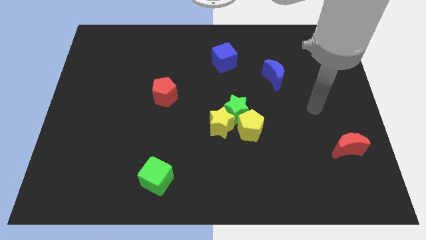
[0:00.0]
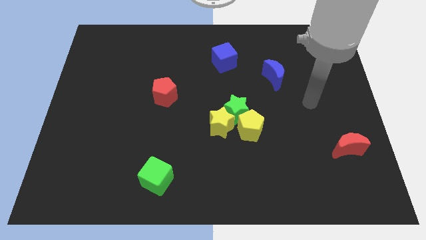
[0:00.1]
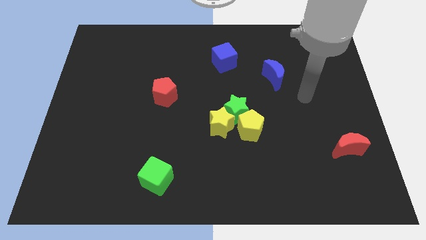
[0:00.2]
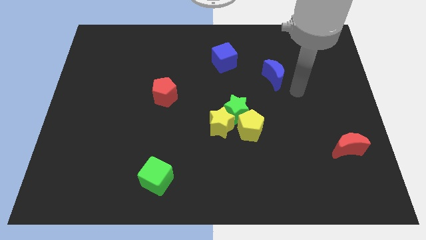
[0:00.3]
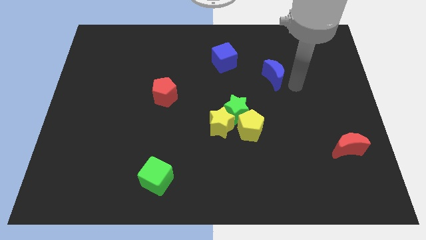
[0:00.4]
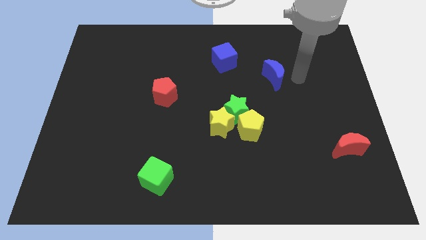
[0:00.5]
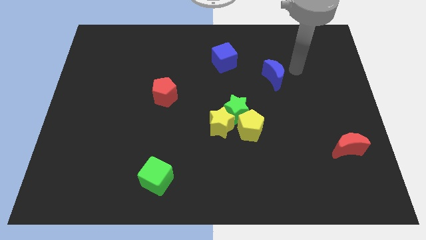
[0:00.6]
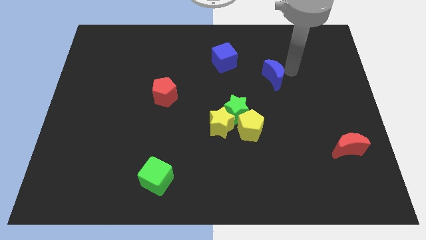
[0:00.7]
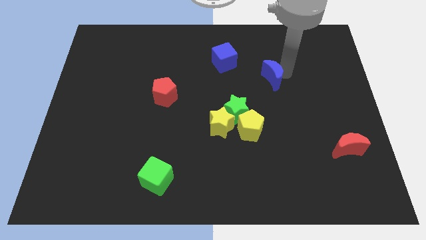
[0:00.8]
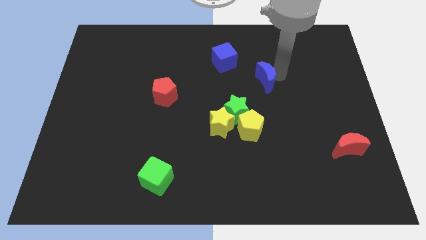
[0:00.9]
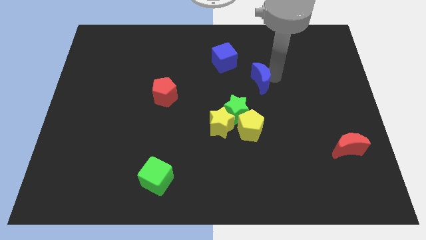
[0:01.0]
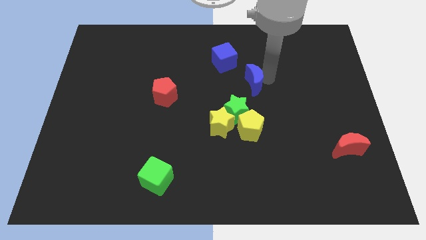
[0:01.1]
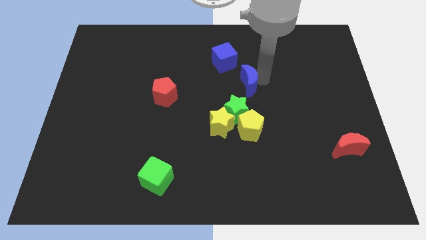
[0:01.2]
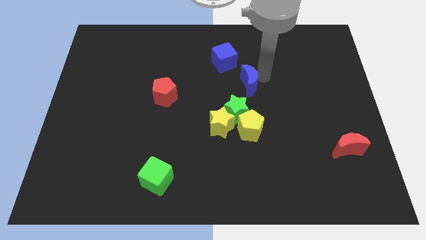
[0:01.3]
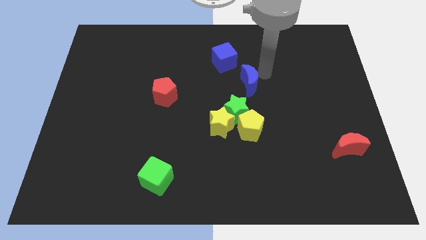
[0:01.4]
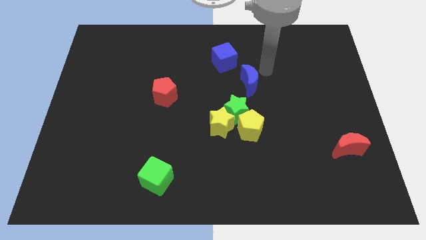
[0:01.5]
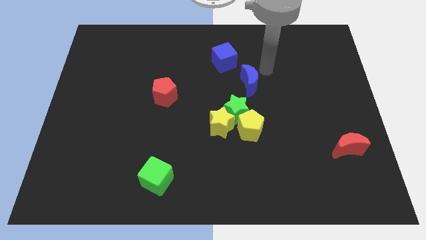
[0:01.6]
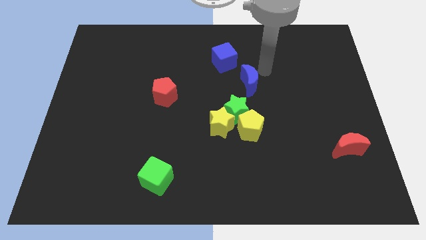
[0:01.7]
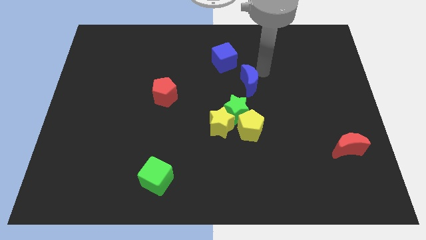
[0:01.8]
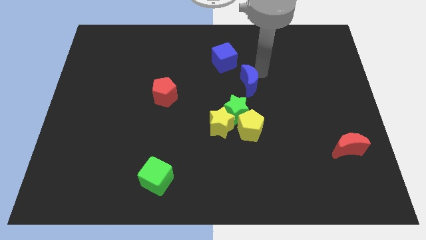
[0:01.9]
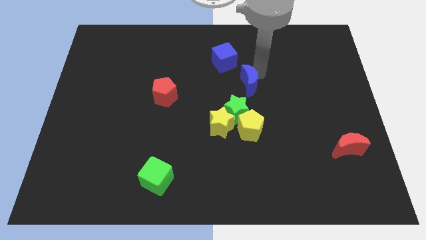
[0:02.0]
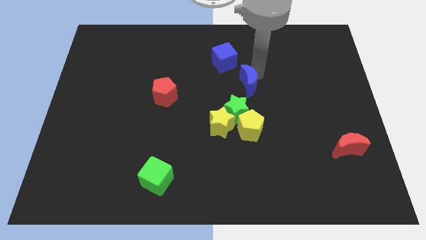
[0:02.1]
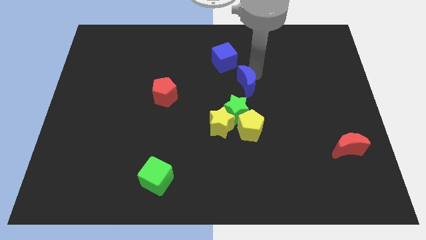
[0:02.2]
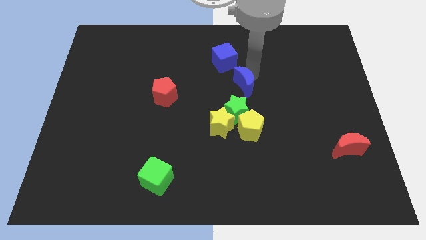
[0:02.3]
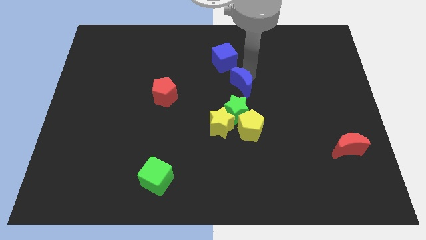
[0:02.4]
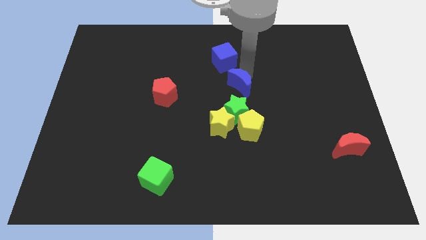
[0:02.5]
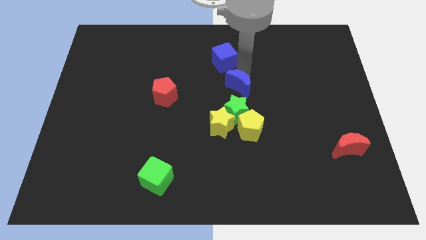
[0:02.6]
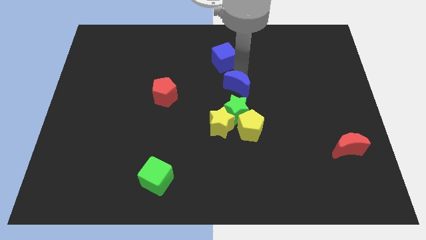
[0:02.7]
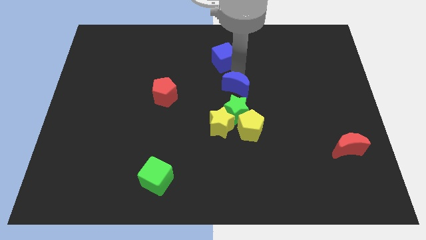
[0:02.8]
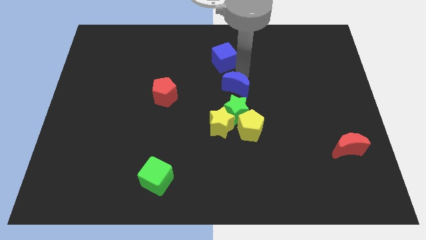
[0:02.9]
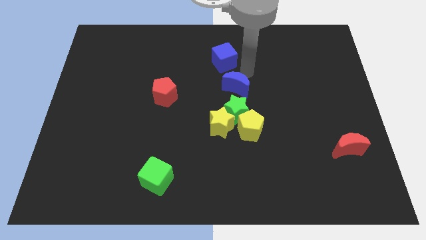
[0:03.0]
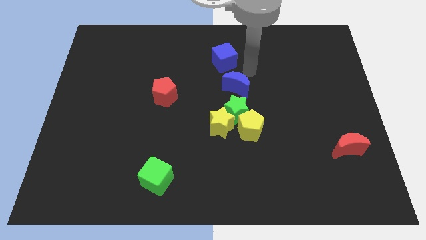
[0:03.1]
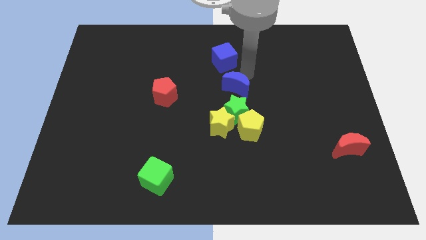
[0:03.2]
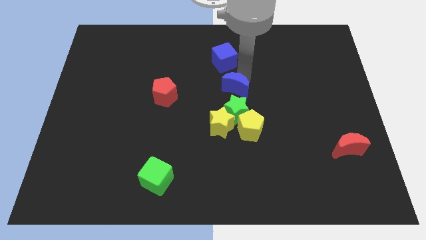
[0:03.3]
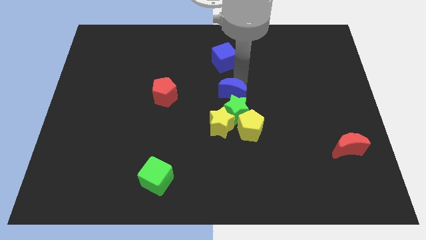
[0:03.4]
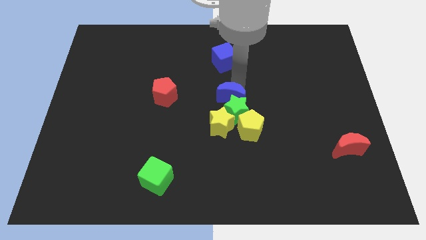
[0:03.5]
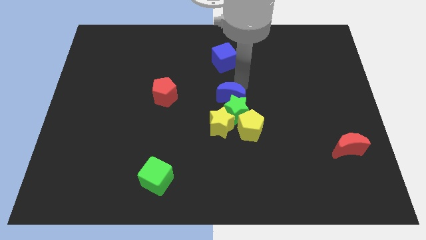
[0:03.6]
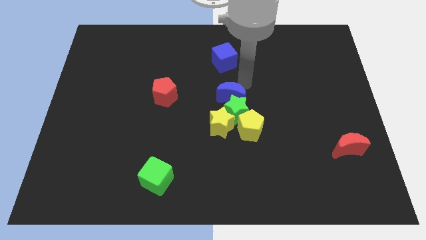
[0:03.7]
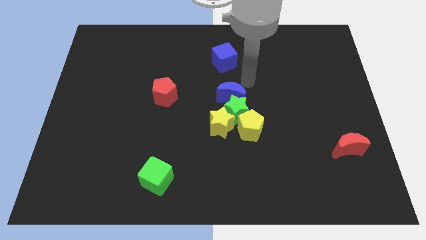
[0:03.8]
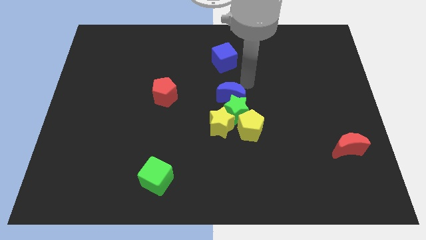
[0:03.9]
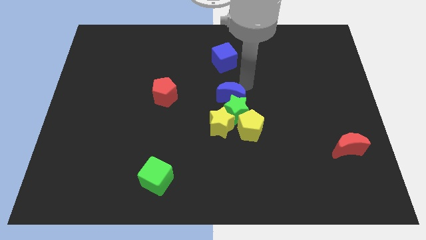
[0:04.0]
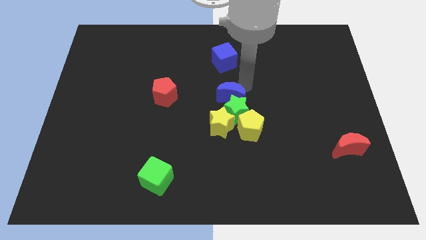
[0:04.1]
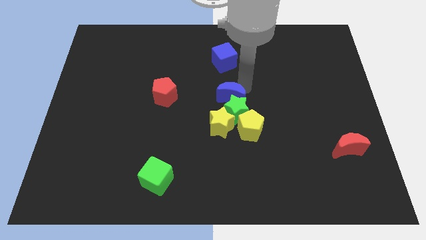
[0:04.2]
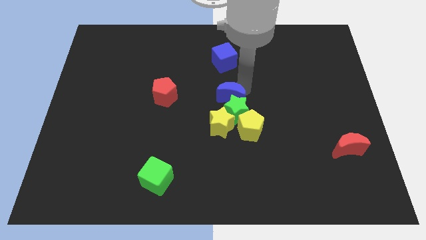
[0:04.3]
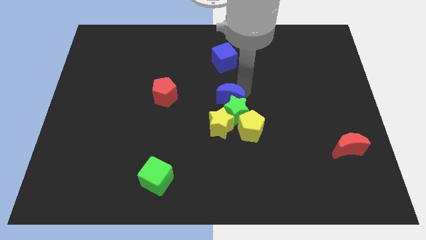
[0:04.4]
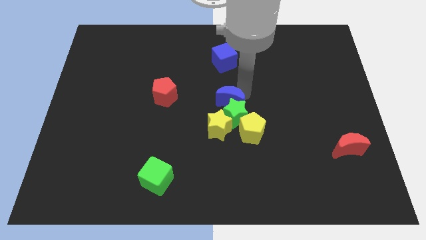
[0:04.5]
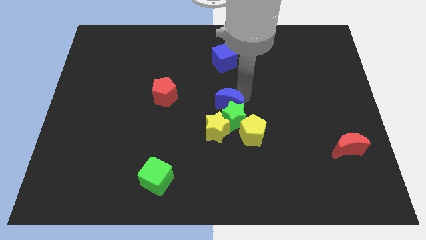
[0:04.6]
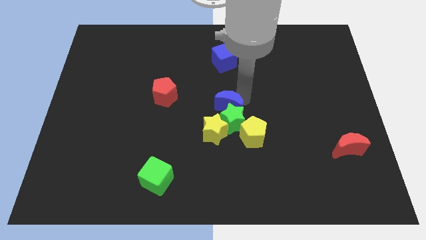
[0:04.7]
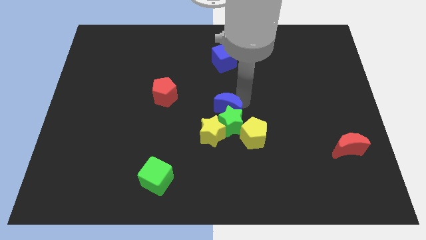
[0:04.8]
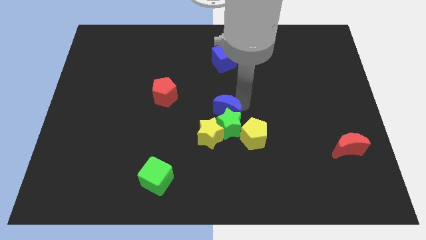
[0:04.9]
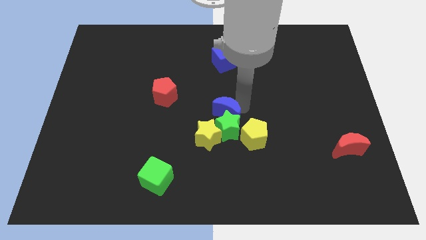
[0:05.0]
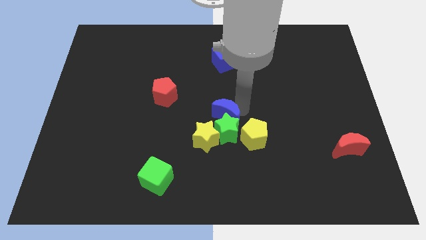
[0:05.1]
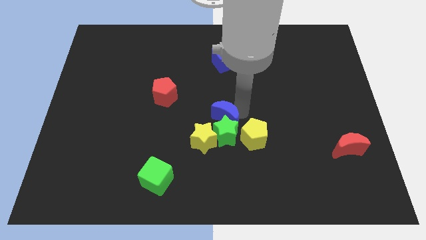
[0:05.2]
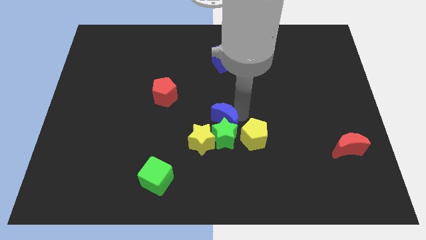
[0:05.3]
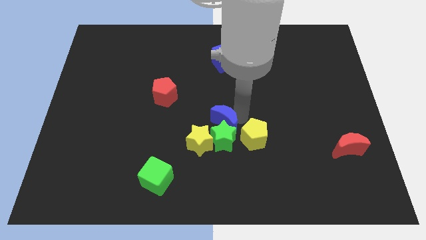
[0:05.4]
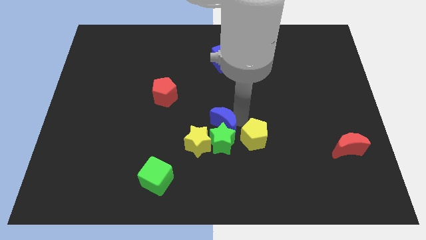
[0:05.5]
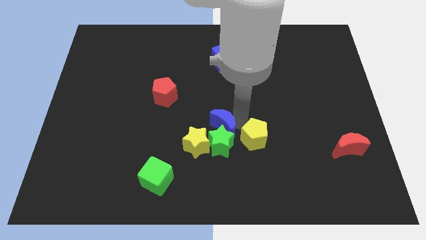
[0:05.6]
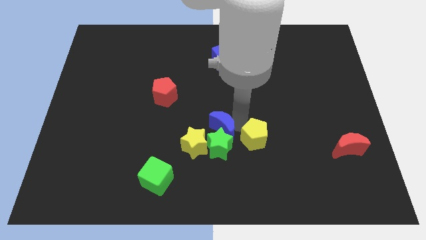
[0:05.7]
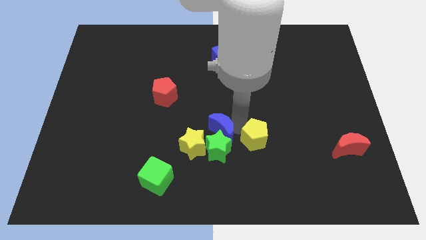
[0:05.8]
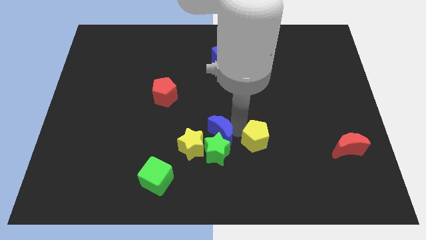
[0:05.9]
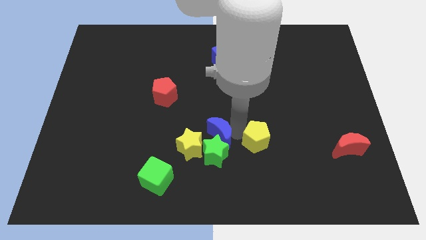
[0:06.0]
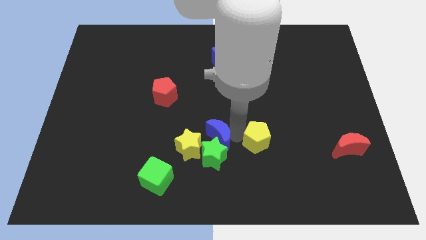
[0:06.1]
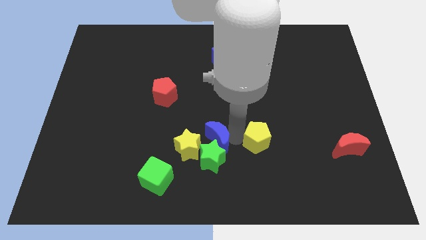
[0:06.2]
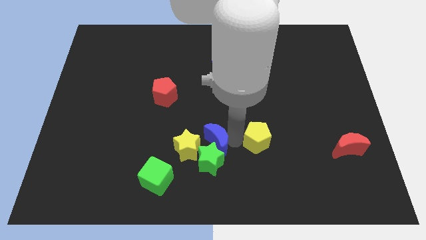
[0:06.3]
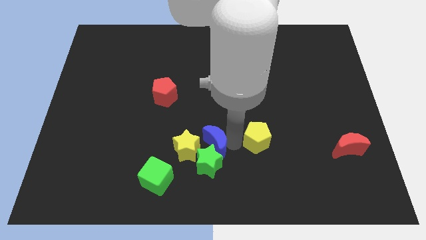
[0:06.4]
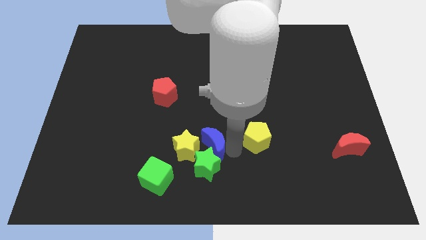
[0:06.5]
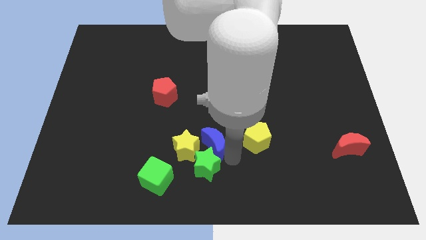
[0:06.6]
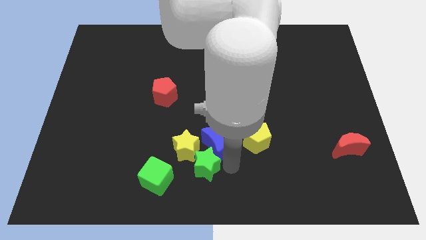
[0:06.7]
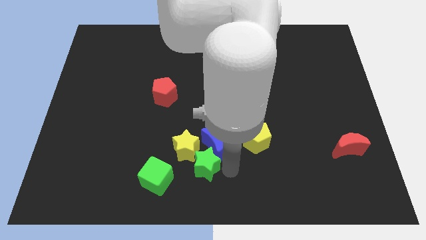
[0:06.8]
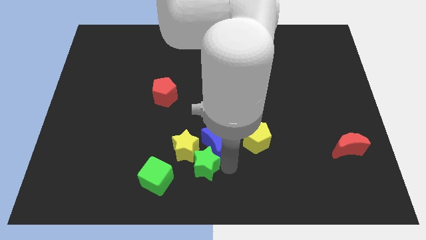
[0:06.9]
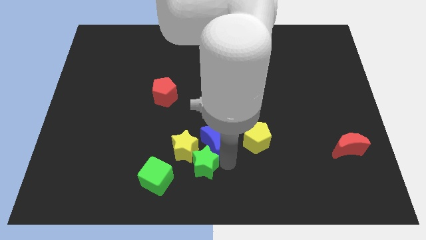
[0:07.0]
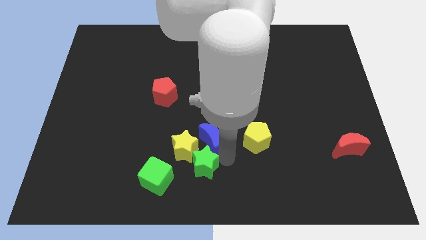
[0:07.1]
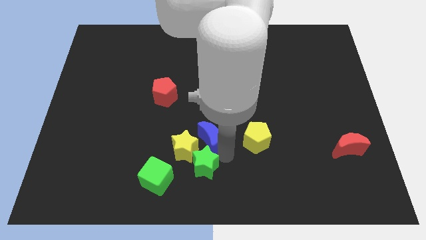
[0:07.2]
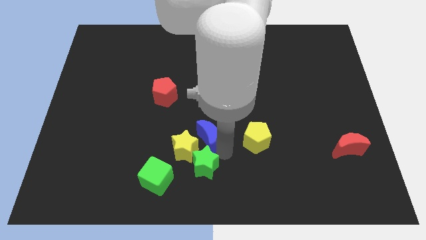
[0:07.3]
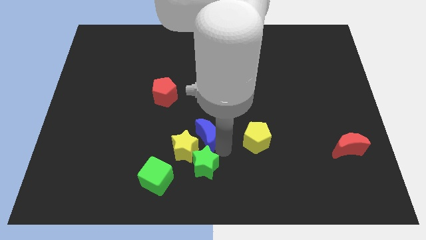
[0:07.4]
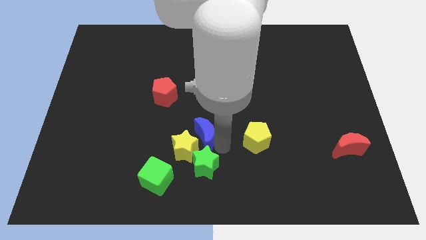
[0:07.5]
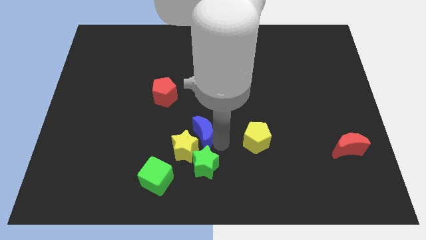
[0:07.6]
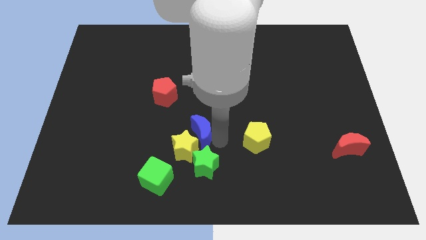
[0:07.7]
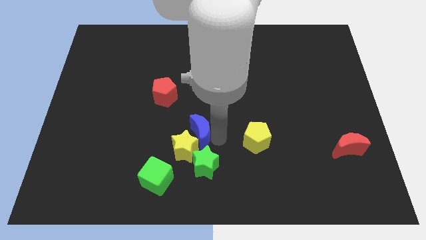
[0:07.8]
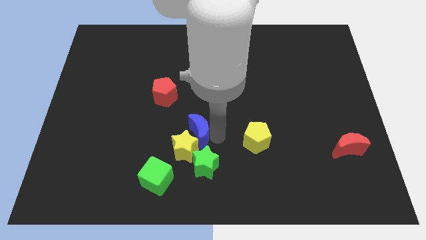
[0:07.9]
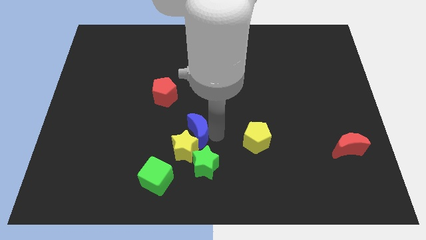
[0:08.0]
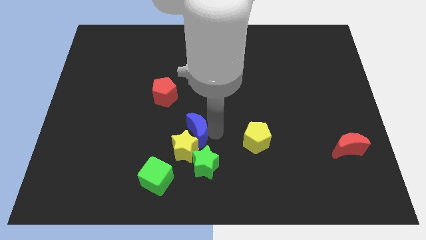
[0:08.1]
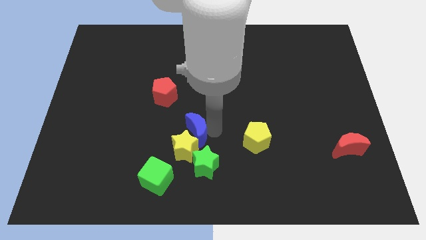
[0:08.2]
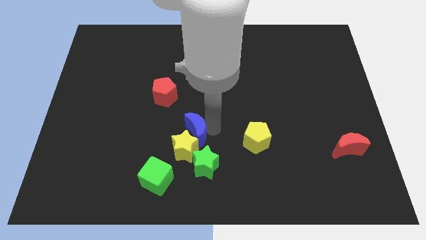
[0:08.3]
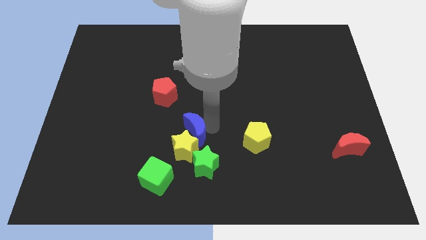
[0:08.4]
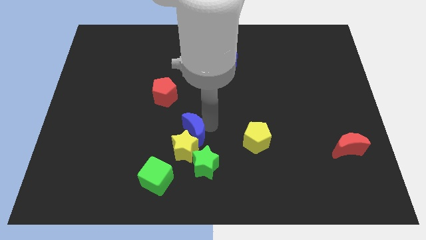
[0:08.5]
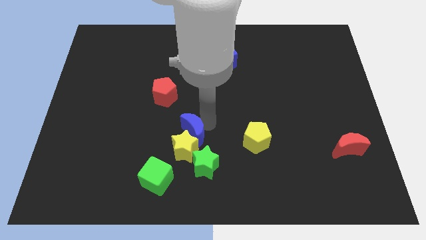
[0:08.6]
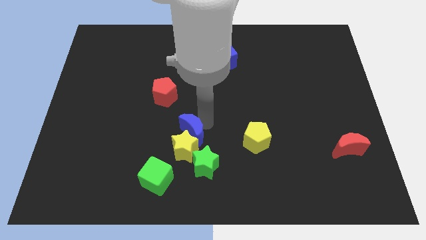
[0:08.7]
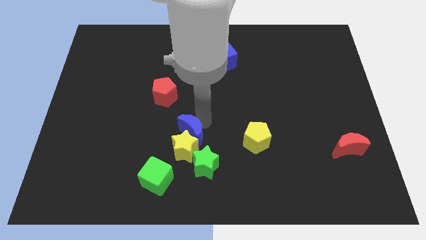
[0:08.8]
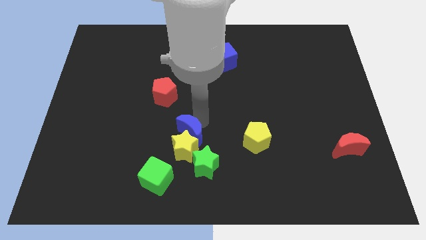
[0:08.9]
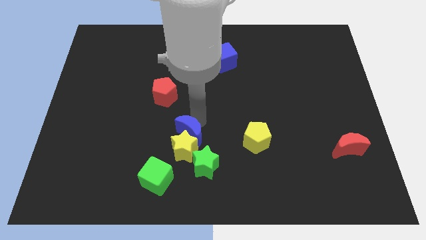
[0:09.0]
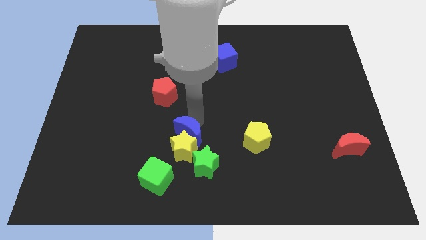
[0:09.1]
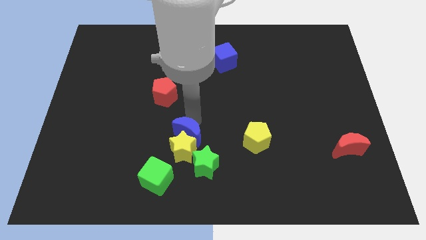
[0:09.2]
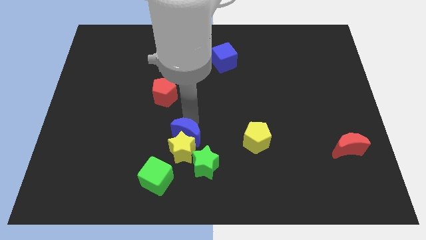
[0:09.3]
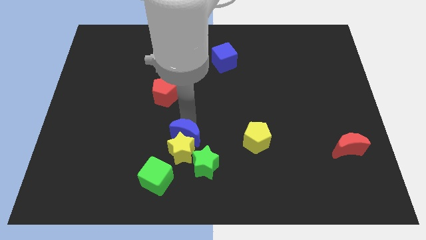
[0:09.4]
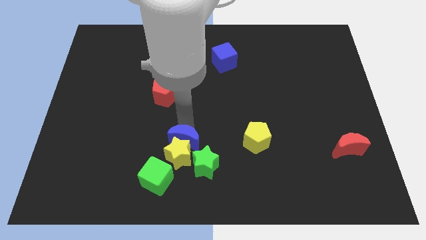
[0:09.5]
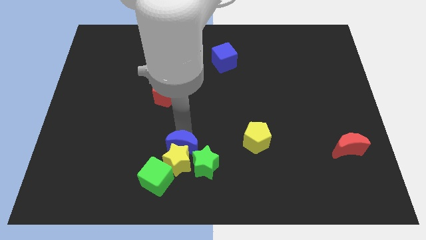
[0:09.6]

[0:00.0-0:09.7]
push the blue moon to the top of the green cube
